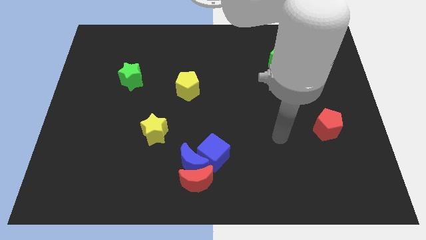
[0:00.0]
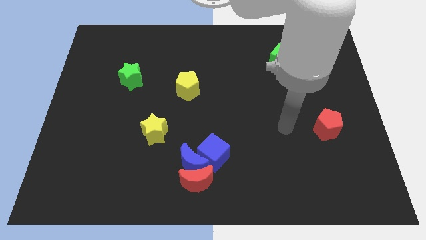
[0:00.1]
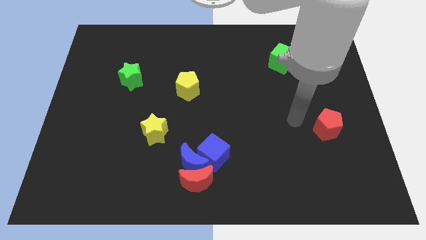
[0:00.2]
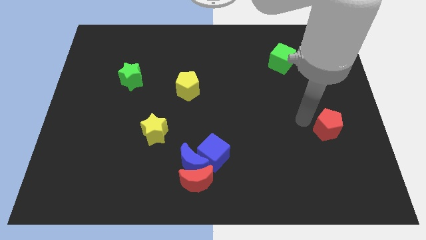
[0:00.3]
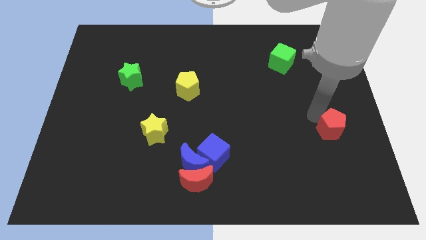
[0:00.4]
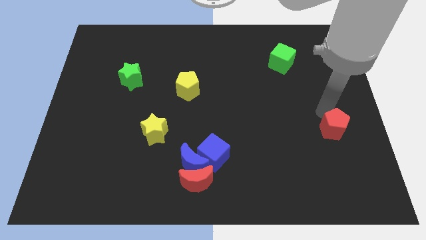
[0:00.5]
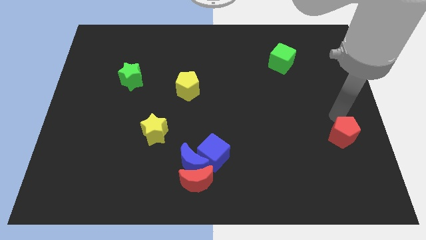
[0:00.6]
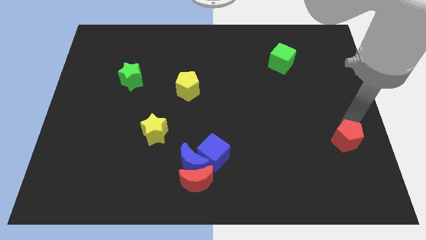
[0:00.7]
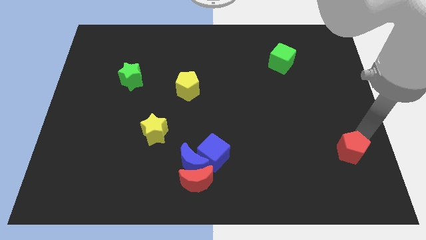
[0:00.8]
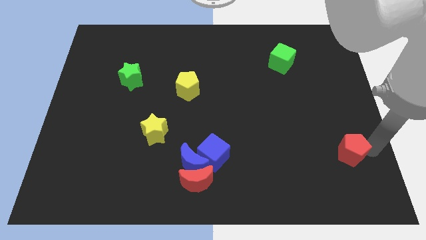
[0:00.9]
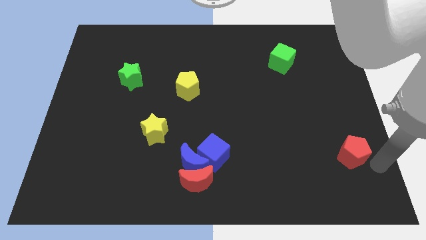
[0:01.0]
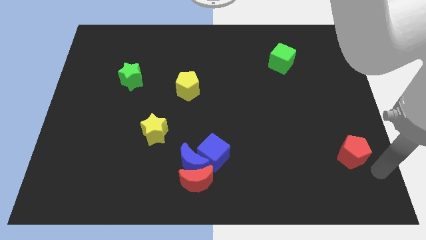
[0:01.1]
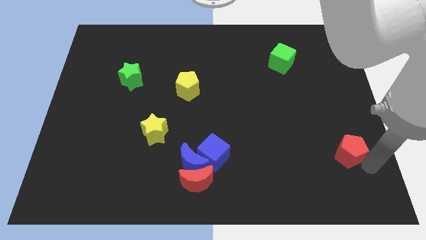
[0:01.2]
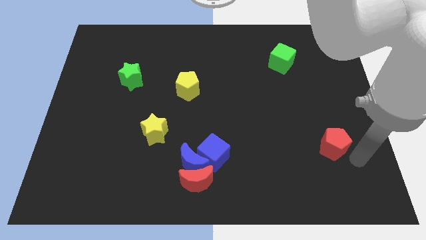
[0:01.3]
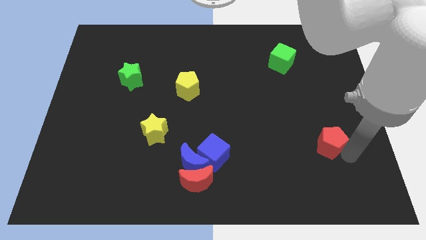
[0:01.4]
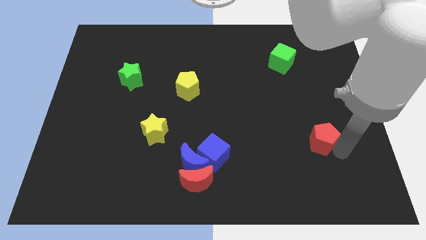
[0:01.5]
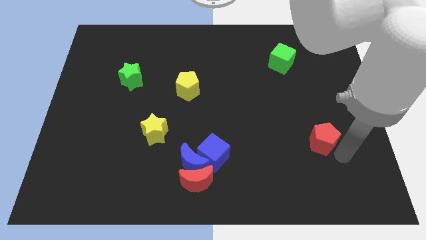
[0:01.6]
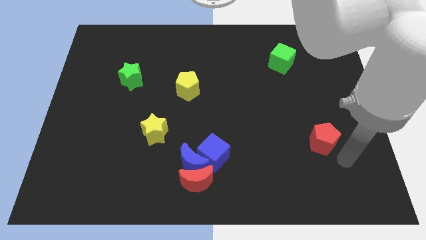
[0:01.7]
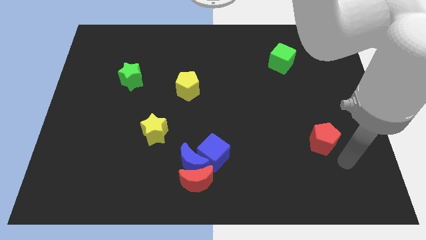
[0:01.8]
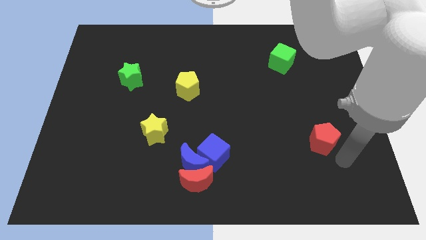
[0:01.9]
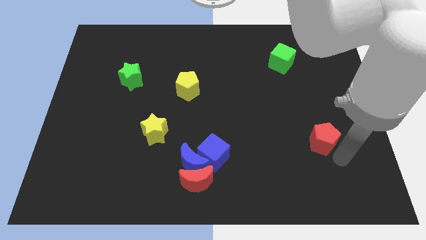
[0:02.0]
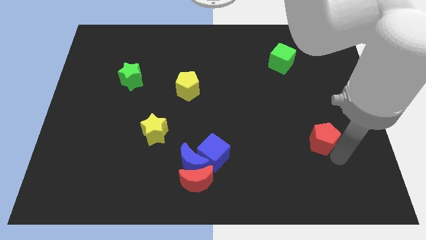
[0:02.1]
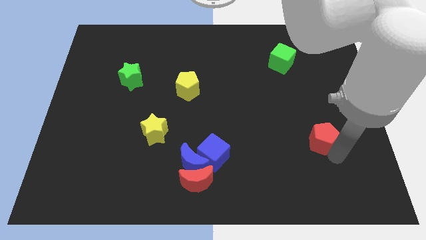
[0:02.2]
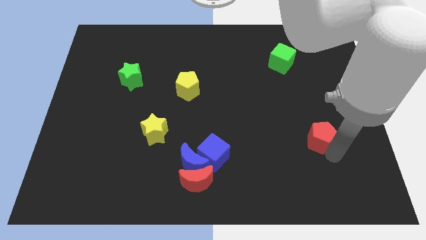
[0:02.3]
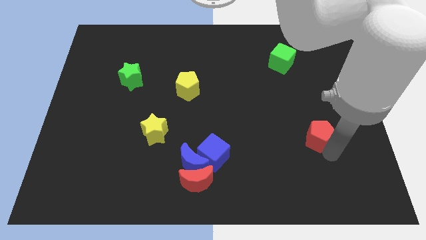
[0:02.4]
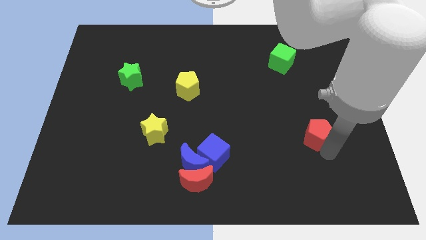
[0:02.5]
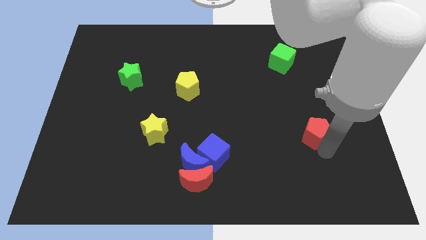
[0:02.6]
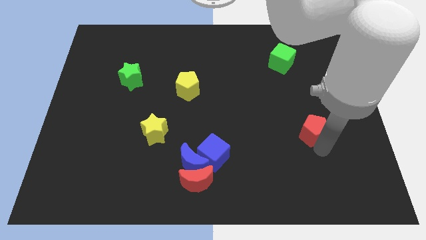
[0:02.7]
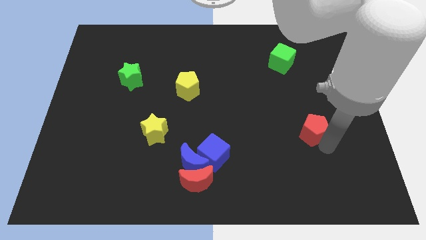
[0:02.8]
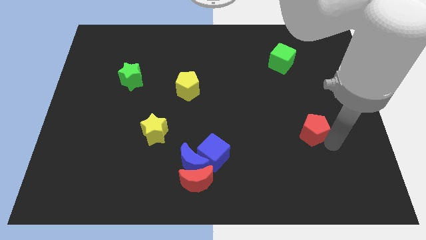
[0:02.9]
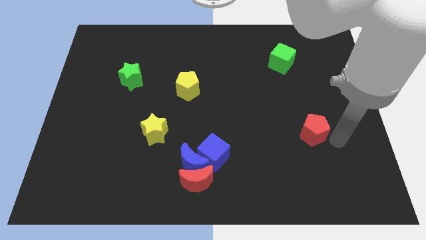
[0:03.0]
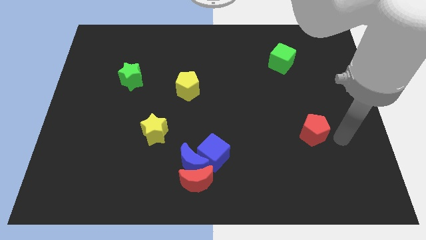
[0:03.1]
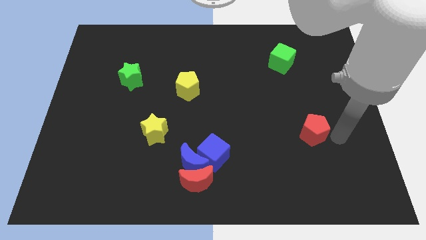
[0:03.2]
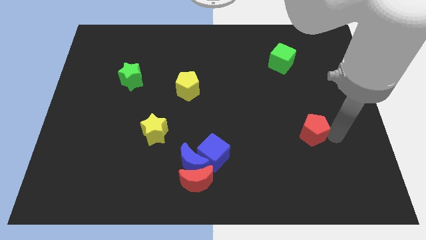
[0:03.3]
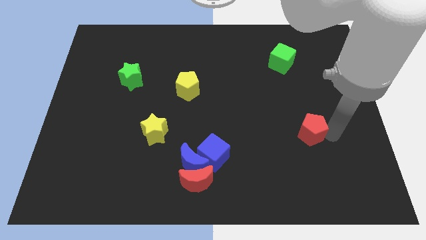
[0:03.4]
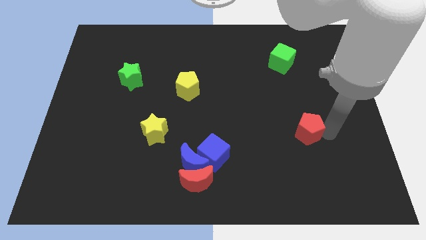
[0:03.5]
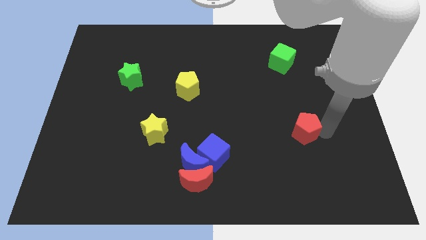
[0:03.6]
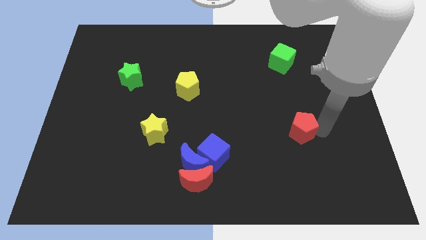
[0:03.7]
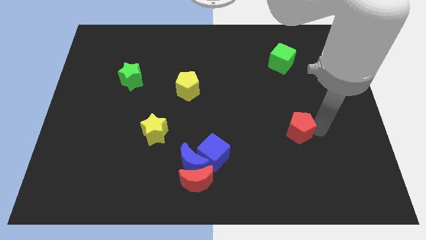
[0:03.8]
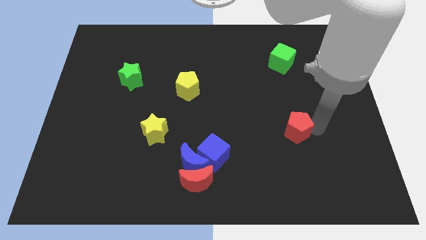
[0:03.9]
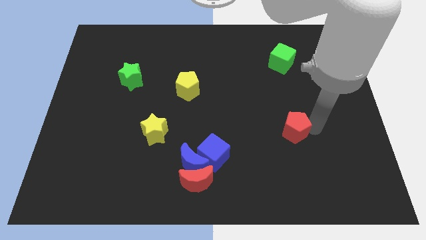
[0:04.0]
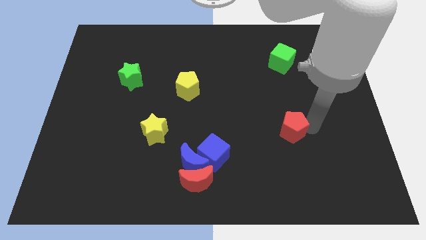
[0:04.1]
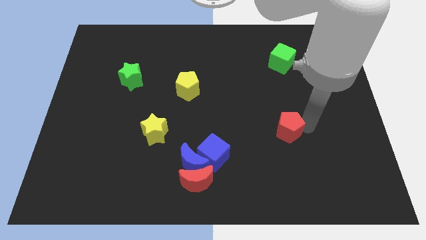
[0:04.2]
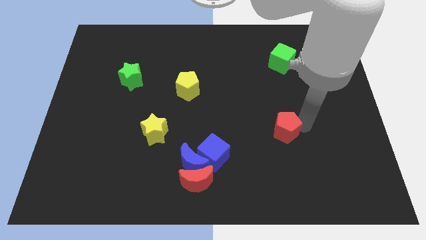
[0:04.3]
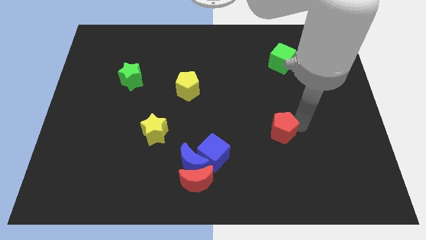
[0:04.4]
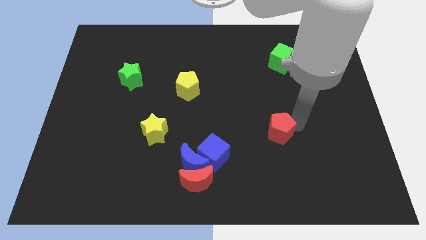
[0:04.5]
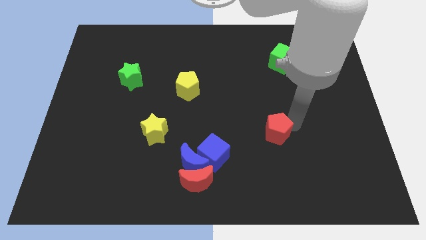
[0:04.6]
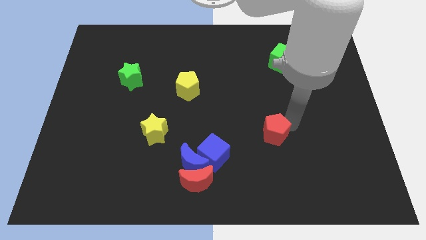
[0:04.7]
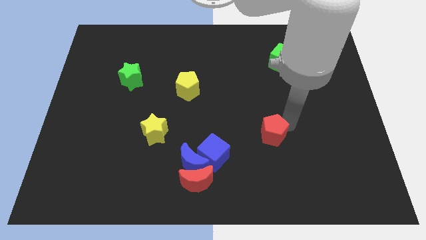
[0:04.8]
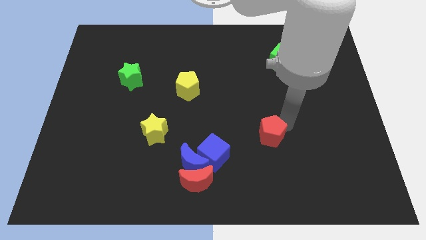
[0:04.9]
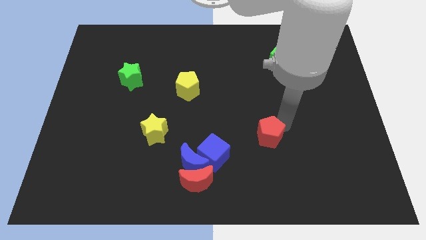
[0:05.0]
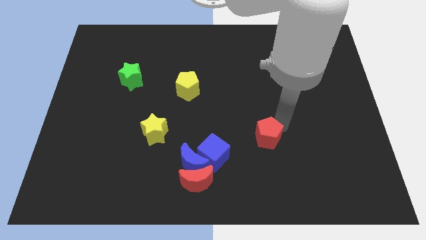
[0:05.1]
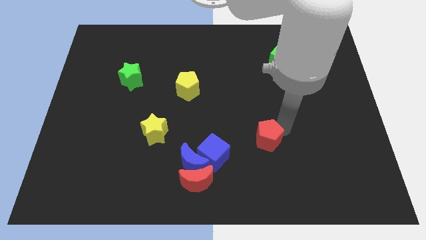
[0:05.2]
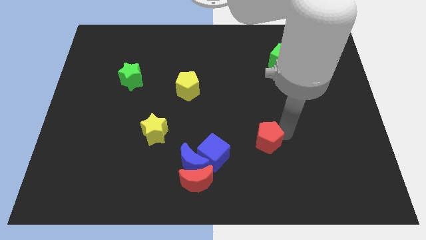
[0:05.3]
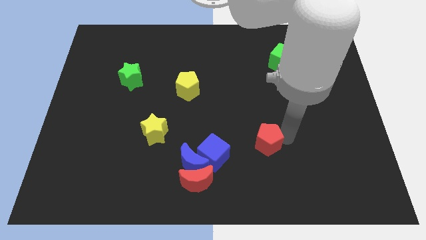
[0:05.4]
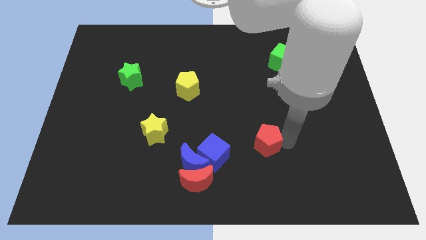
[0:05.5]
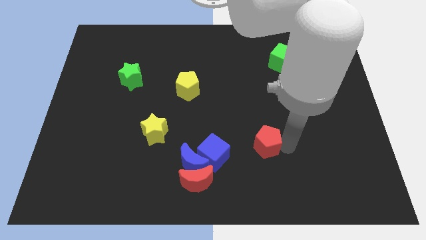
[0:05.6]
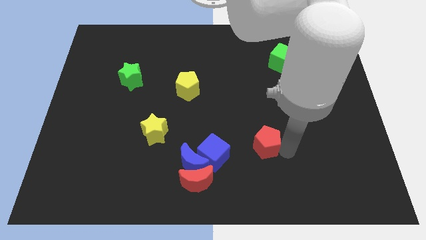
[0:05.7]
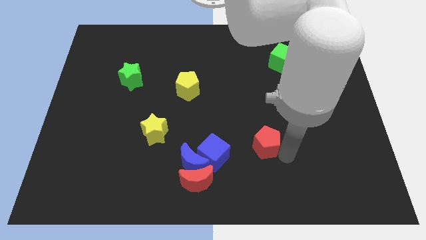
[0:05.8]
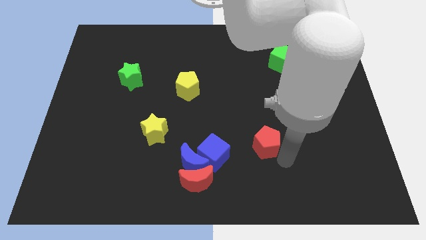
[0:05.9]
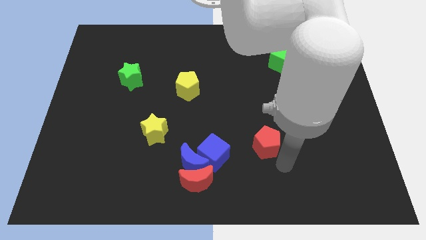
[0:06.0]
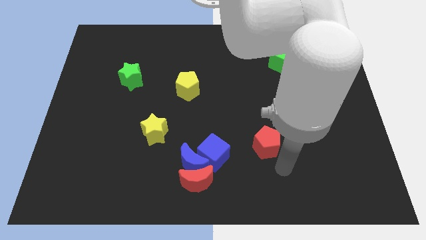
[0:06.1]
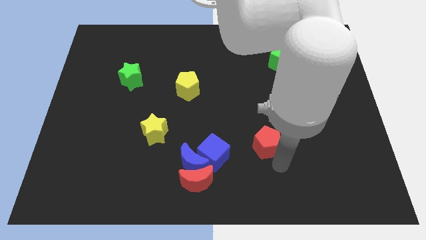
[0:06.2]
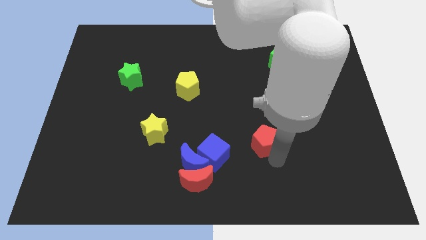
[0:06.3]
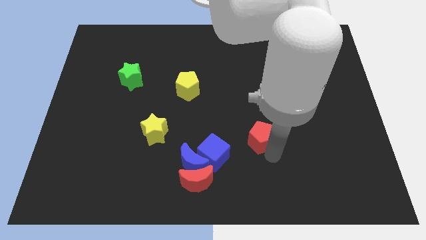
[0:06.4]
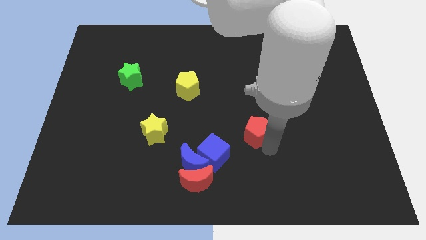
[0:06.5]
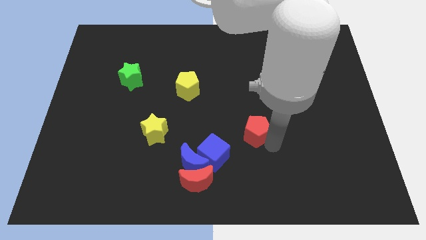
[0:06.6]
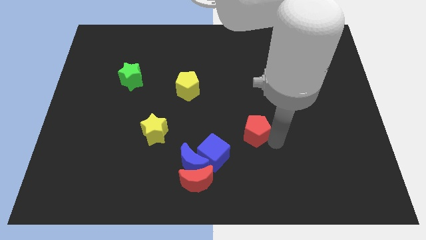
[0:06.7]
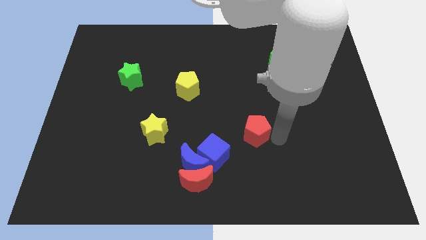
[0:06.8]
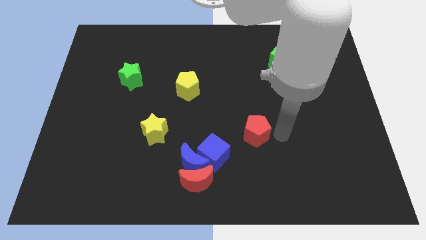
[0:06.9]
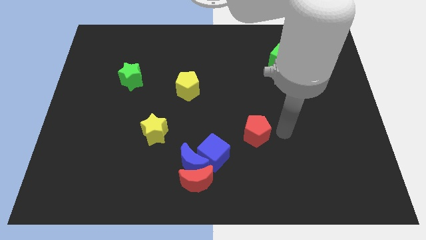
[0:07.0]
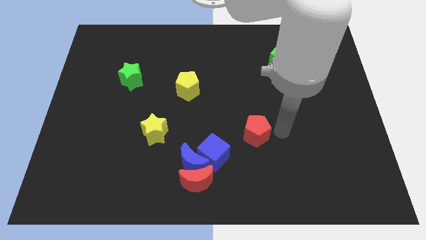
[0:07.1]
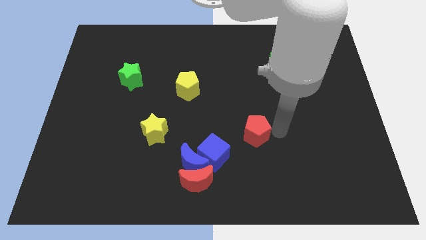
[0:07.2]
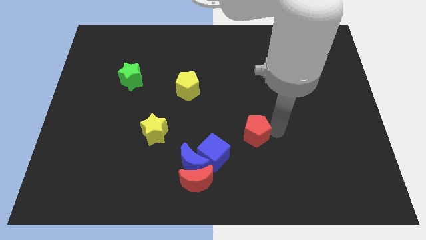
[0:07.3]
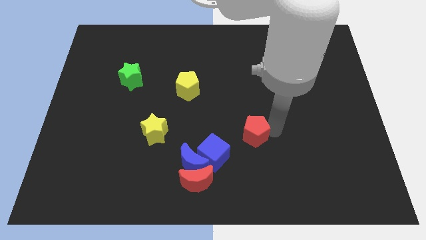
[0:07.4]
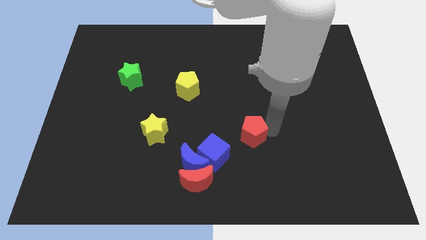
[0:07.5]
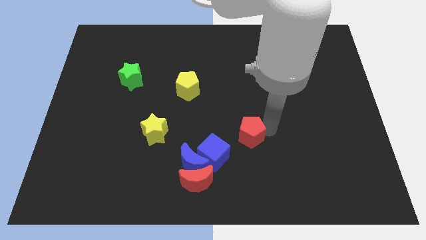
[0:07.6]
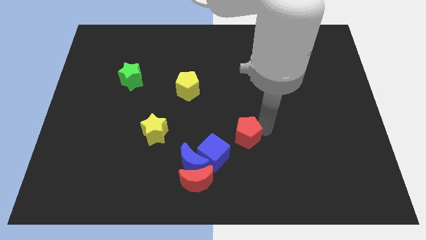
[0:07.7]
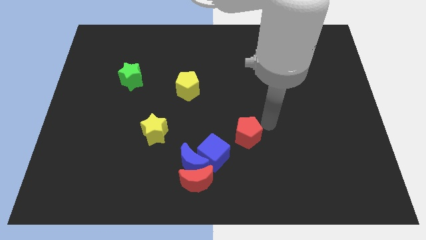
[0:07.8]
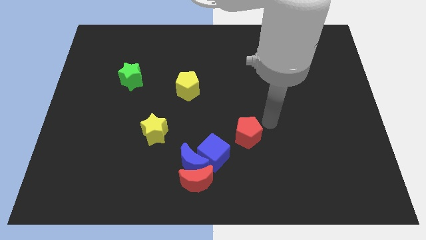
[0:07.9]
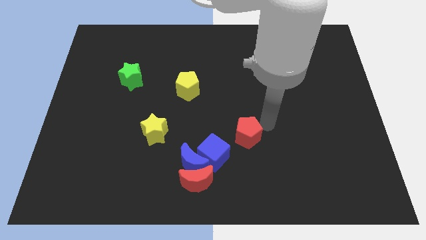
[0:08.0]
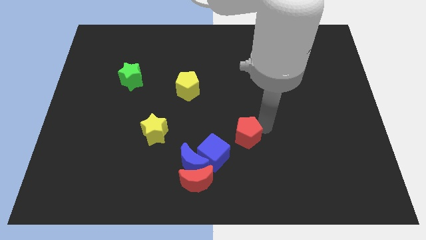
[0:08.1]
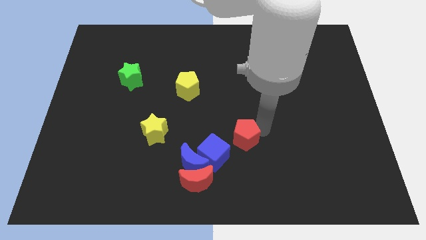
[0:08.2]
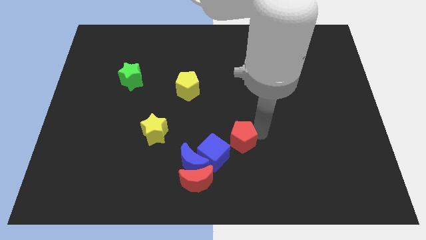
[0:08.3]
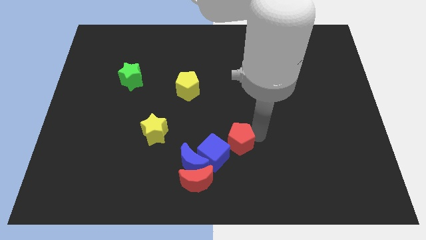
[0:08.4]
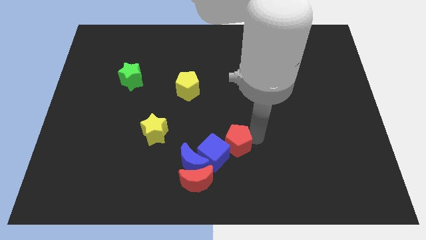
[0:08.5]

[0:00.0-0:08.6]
move the red pentagon to the blue cube
